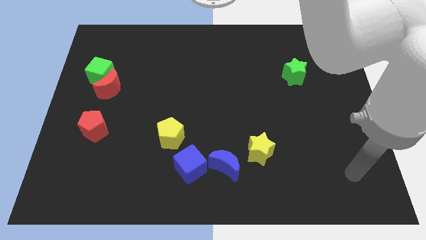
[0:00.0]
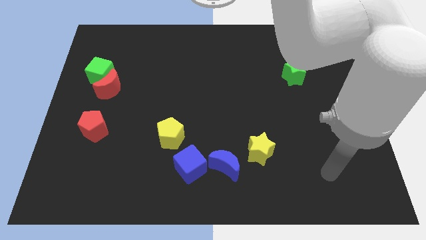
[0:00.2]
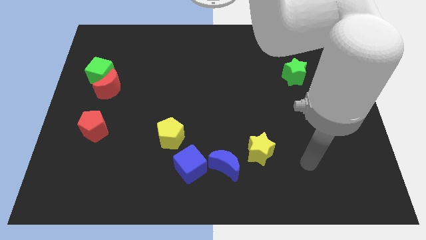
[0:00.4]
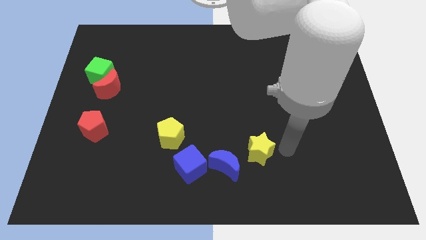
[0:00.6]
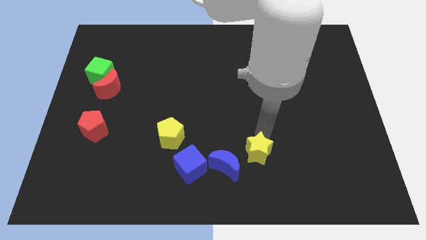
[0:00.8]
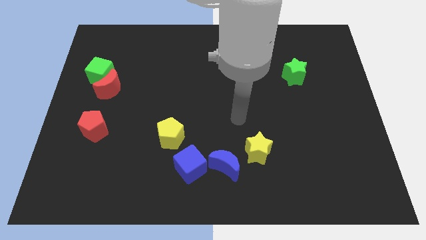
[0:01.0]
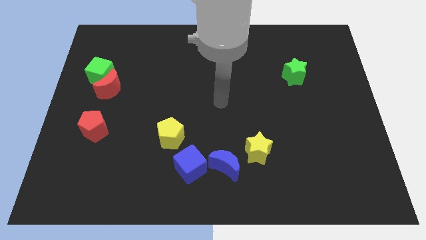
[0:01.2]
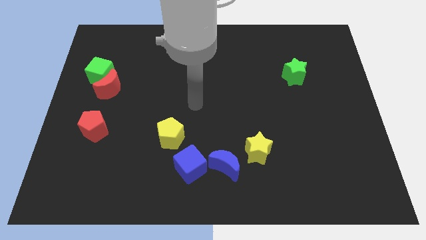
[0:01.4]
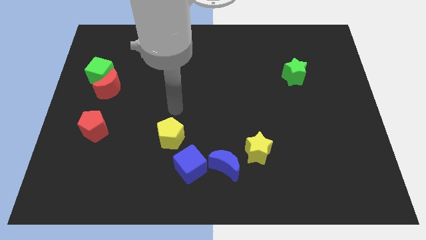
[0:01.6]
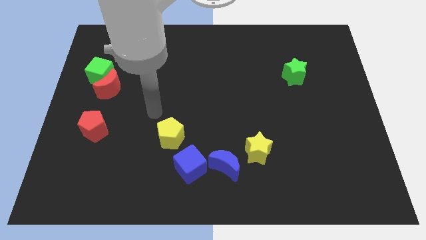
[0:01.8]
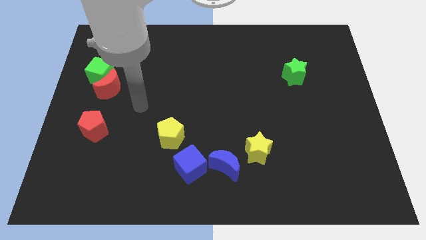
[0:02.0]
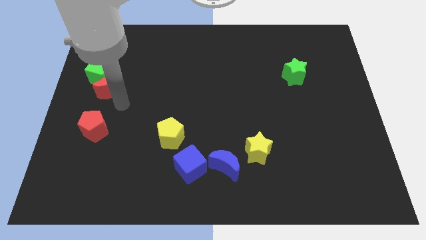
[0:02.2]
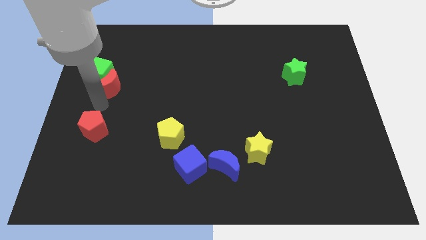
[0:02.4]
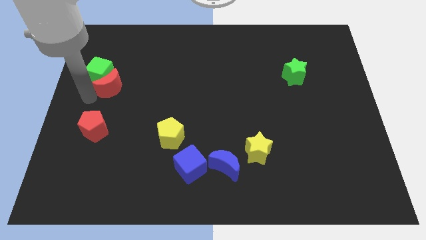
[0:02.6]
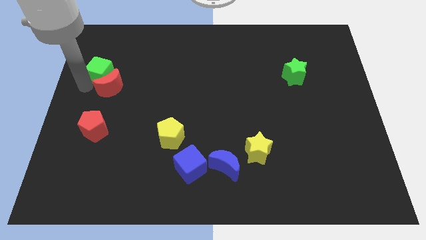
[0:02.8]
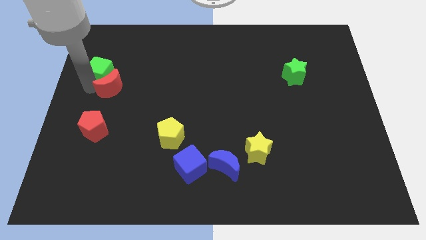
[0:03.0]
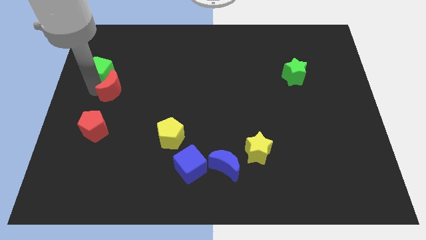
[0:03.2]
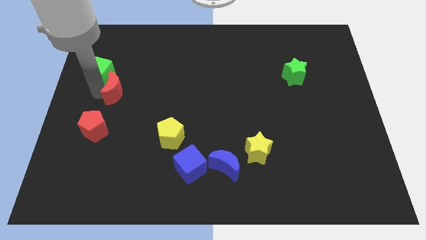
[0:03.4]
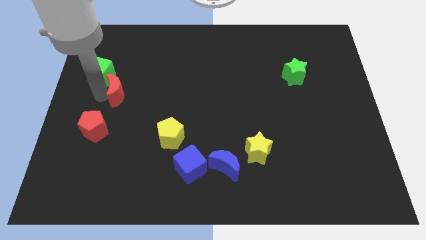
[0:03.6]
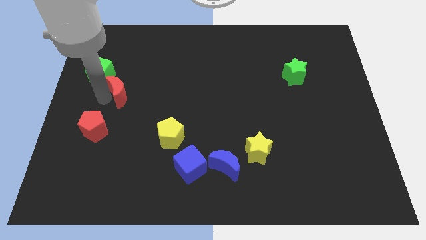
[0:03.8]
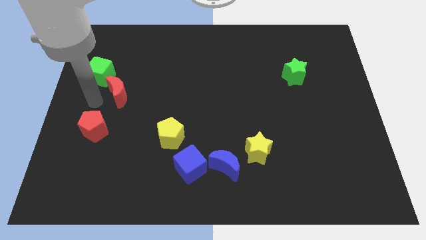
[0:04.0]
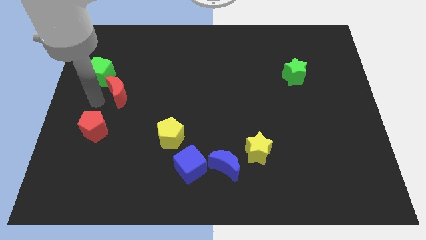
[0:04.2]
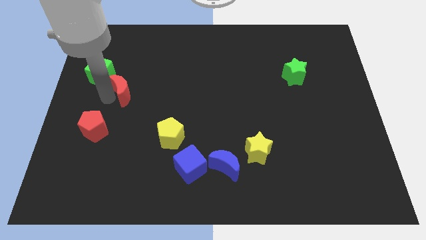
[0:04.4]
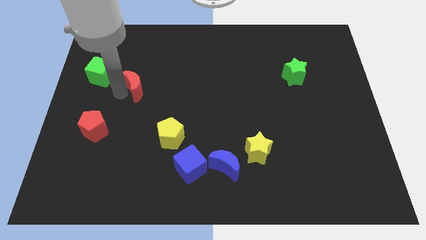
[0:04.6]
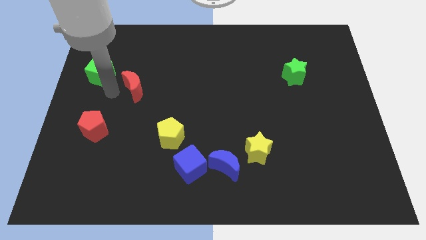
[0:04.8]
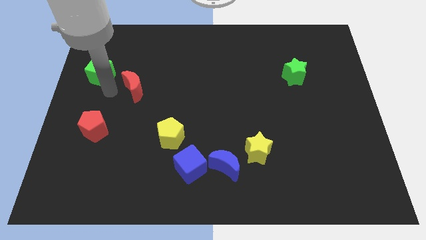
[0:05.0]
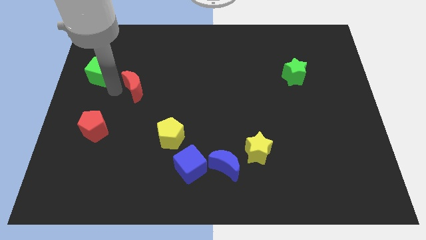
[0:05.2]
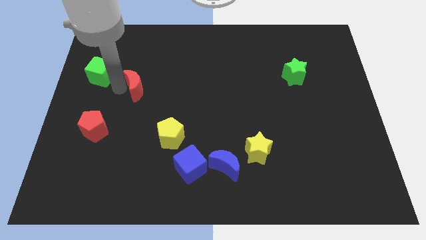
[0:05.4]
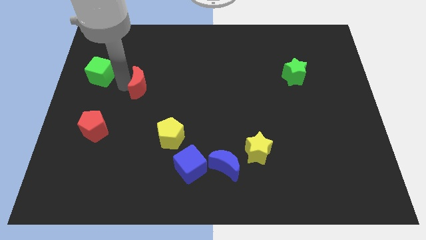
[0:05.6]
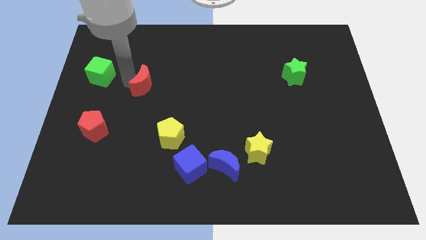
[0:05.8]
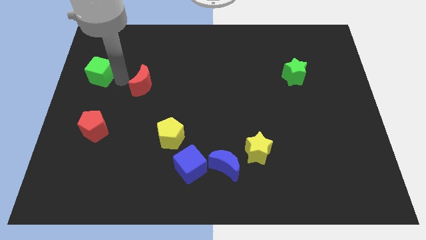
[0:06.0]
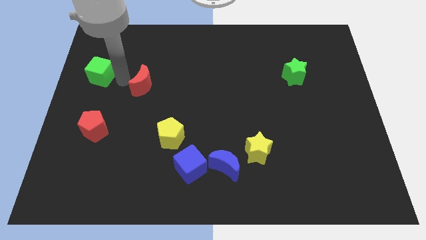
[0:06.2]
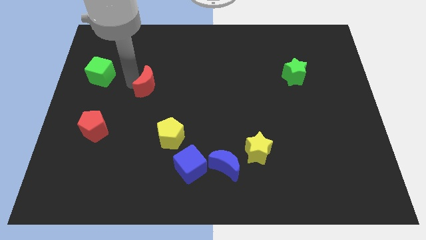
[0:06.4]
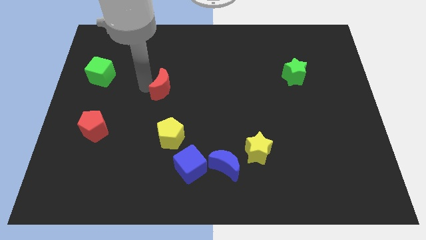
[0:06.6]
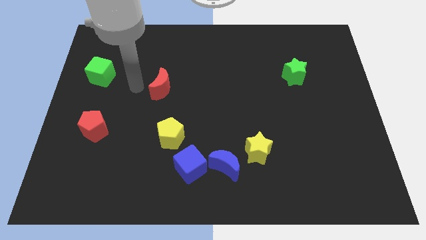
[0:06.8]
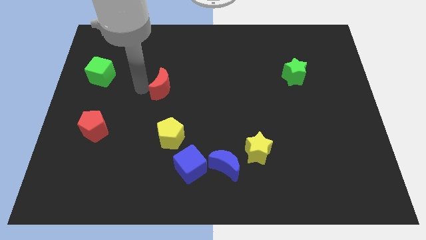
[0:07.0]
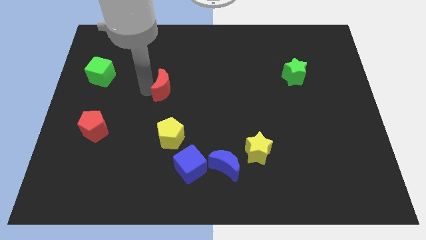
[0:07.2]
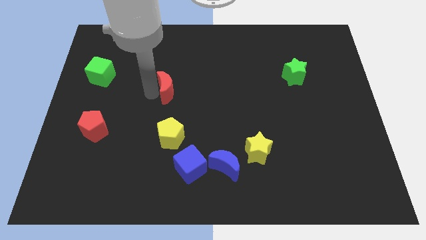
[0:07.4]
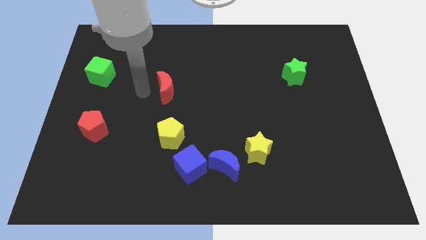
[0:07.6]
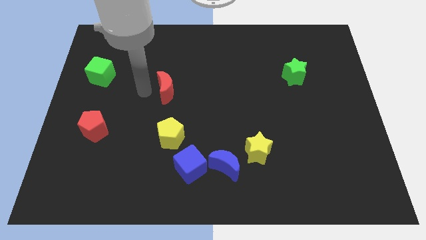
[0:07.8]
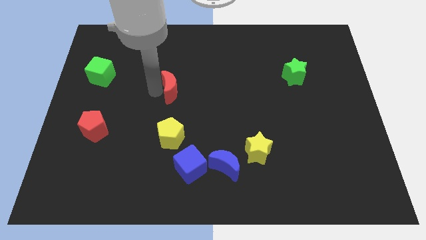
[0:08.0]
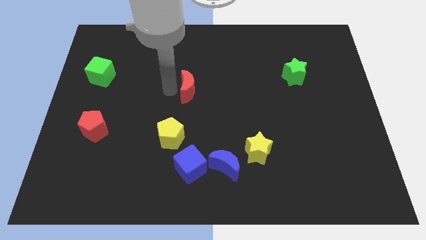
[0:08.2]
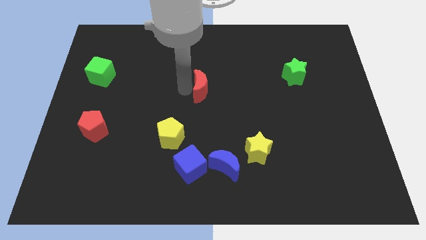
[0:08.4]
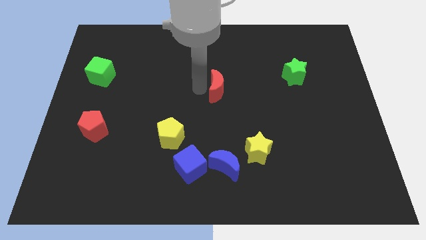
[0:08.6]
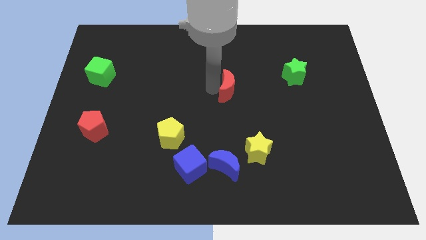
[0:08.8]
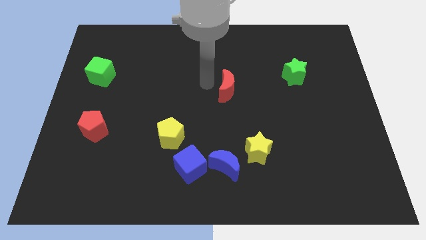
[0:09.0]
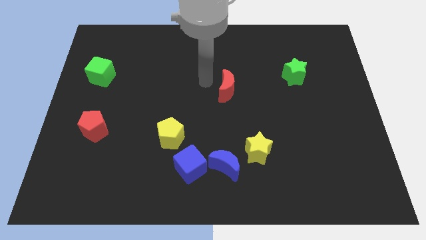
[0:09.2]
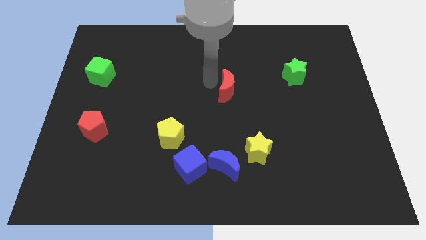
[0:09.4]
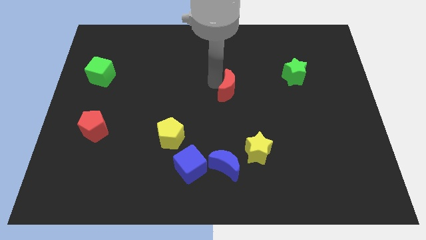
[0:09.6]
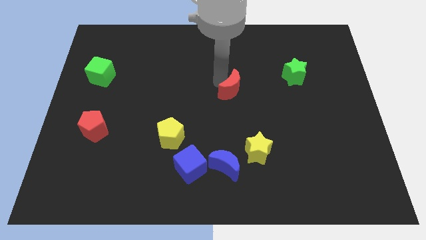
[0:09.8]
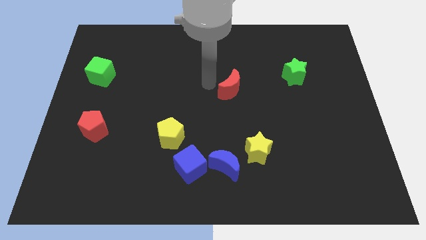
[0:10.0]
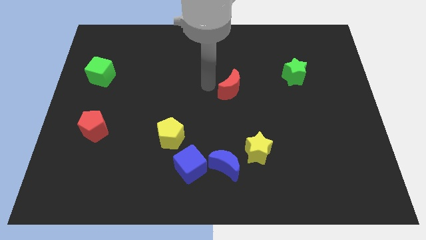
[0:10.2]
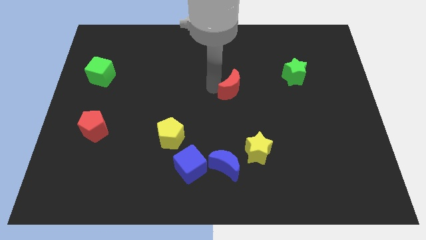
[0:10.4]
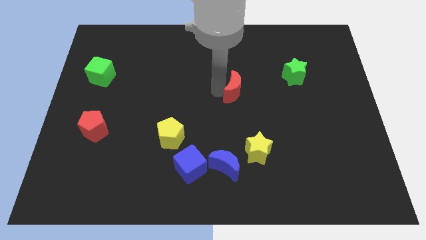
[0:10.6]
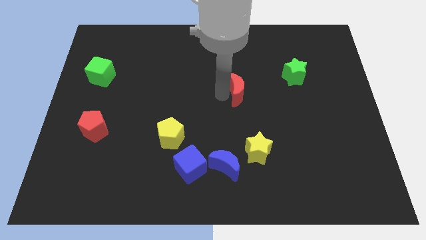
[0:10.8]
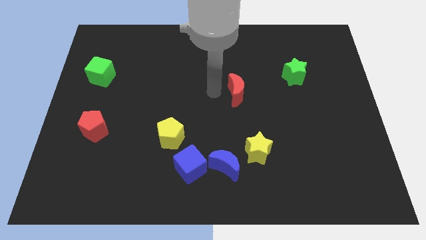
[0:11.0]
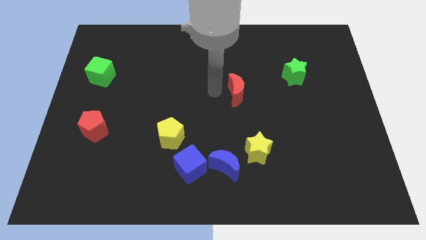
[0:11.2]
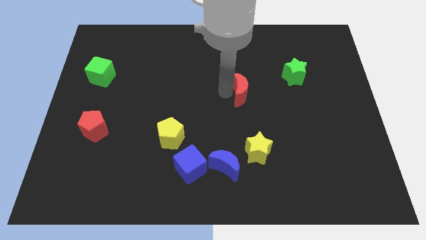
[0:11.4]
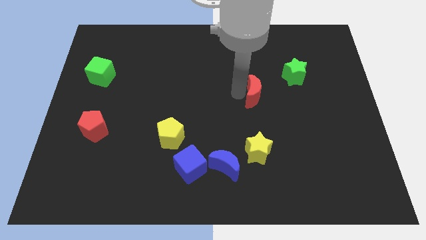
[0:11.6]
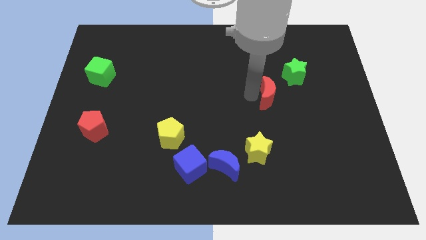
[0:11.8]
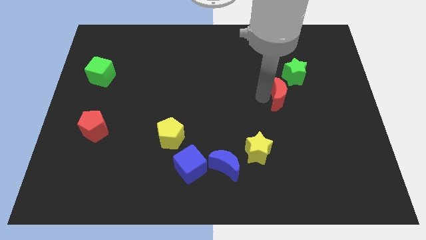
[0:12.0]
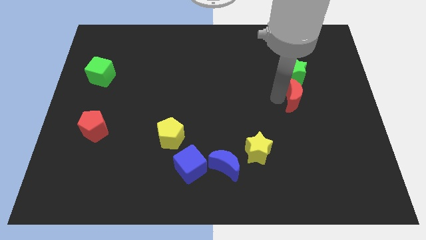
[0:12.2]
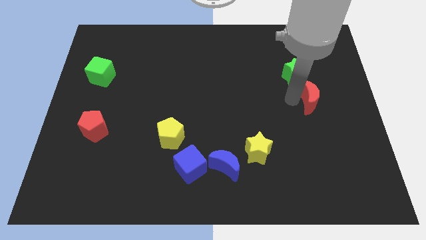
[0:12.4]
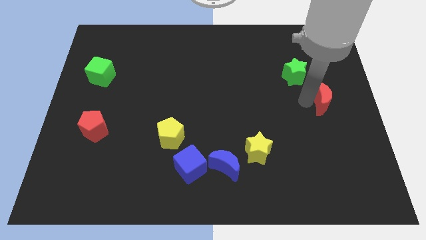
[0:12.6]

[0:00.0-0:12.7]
slide the red moon to the right side of the board
